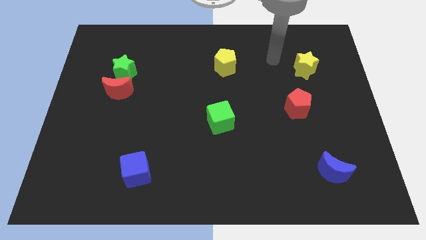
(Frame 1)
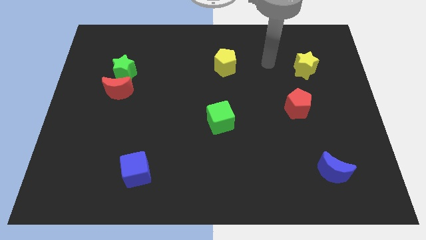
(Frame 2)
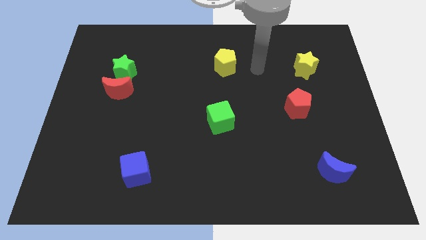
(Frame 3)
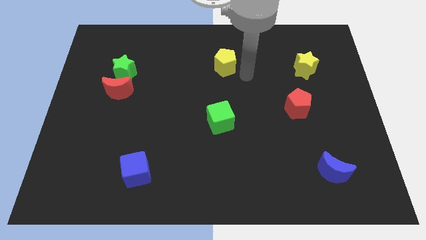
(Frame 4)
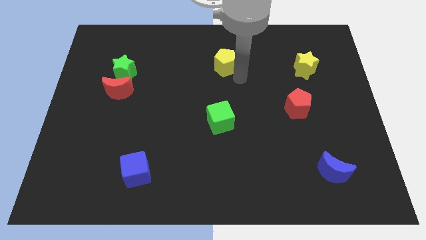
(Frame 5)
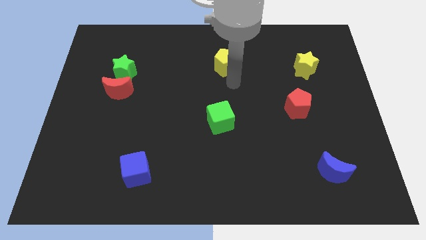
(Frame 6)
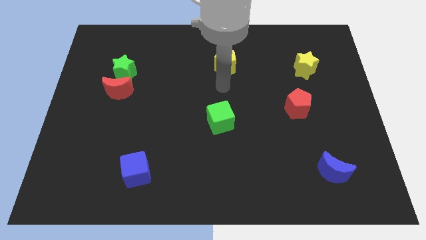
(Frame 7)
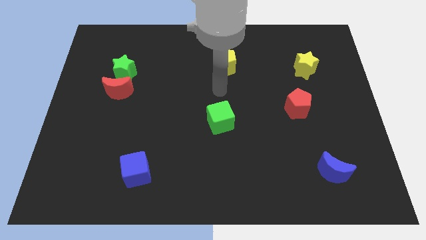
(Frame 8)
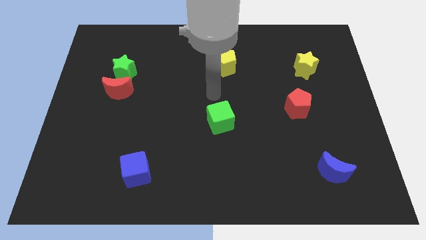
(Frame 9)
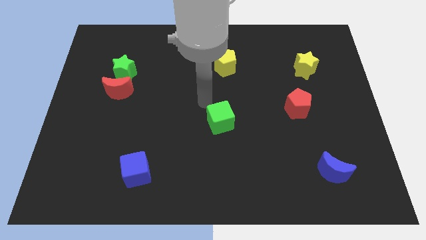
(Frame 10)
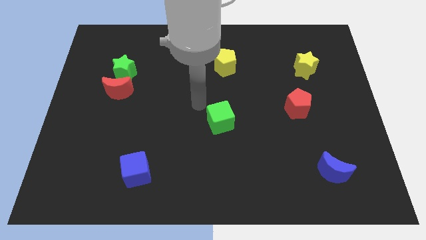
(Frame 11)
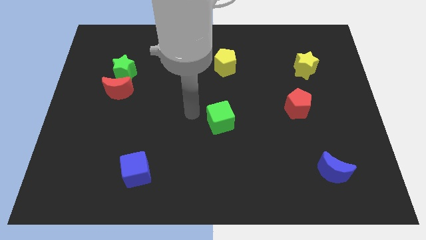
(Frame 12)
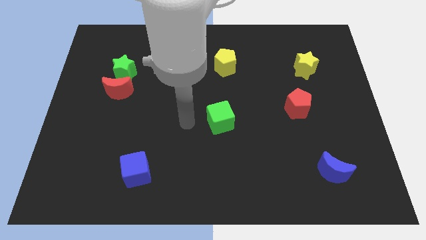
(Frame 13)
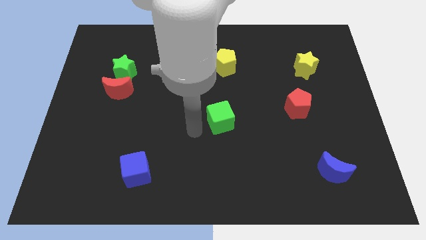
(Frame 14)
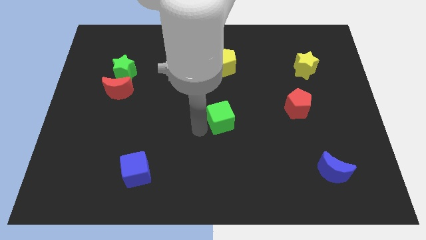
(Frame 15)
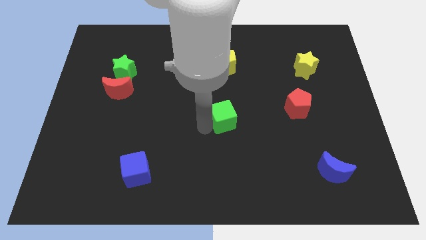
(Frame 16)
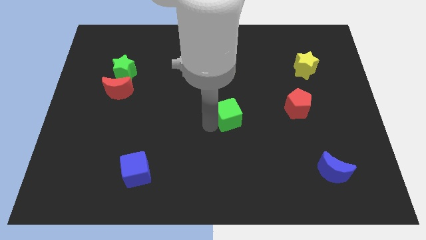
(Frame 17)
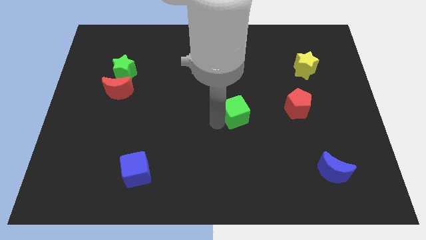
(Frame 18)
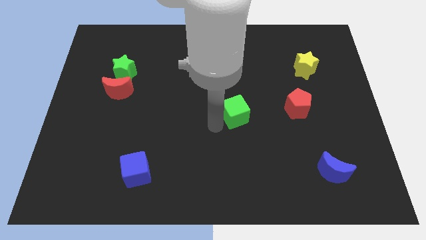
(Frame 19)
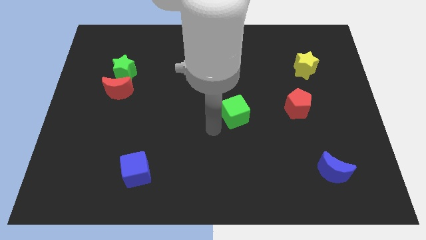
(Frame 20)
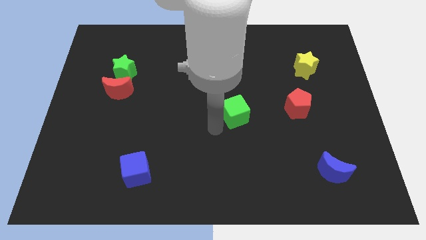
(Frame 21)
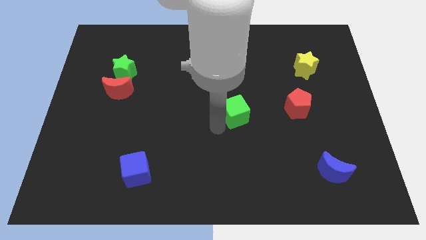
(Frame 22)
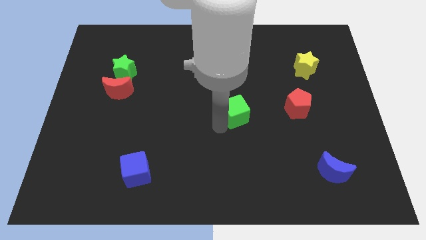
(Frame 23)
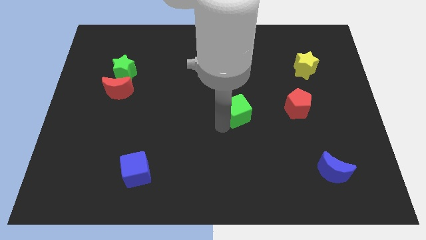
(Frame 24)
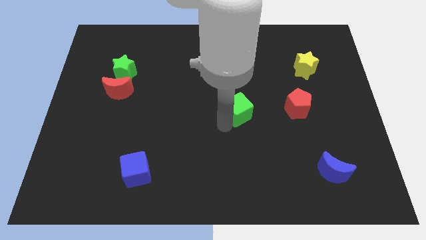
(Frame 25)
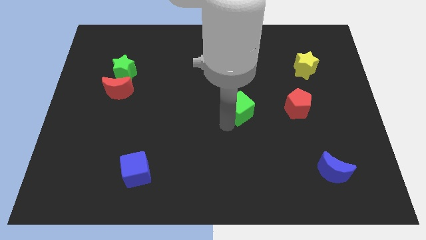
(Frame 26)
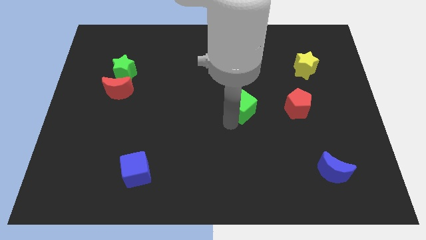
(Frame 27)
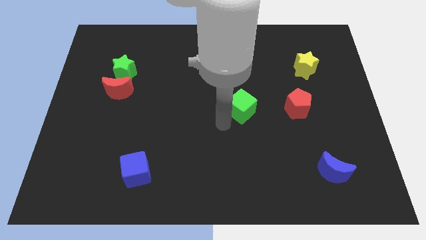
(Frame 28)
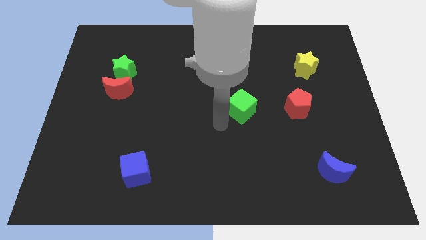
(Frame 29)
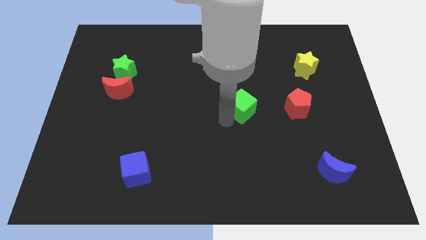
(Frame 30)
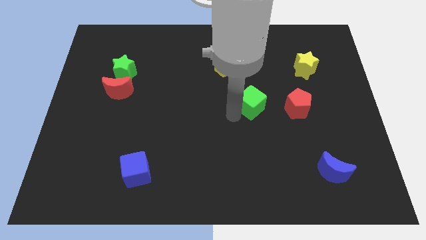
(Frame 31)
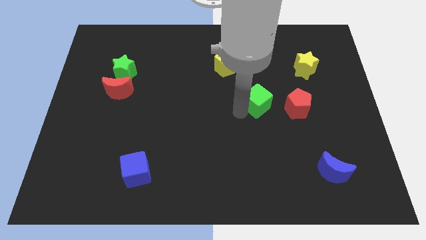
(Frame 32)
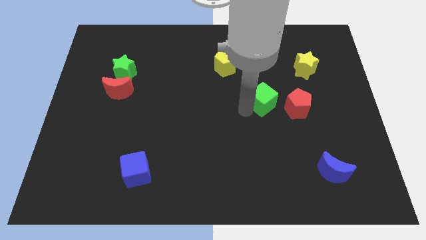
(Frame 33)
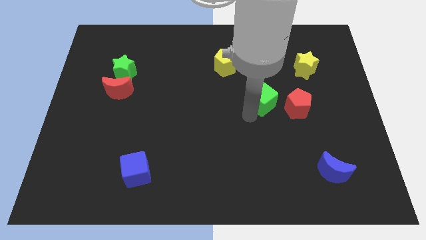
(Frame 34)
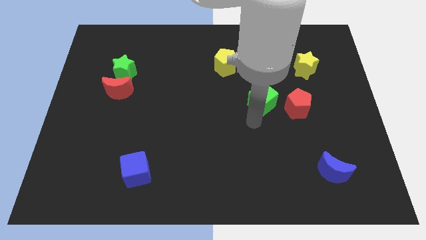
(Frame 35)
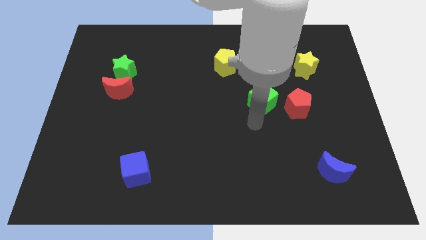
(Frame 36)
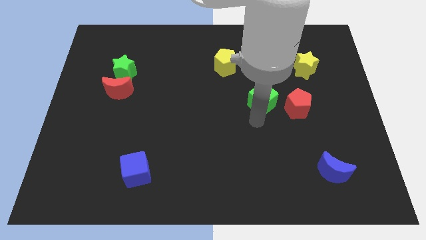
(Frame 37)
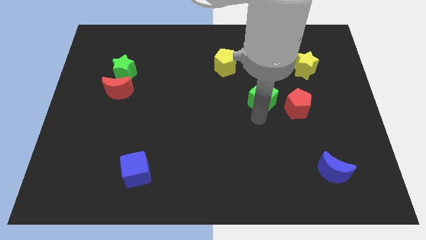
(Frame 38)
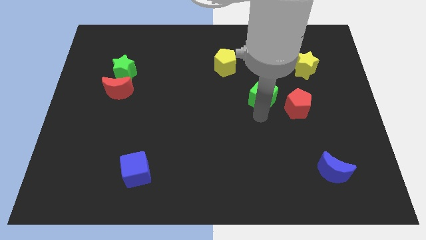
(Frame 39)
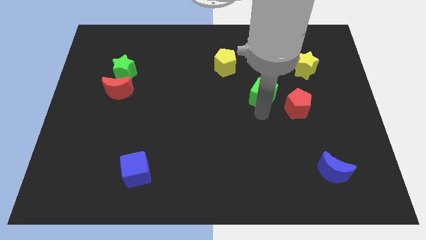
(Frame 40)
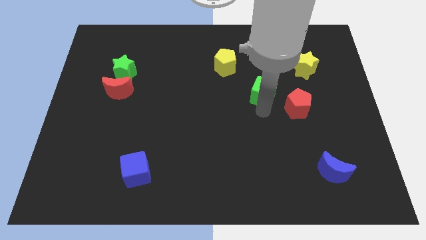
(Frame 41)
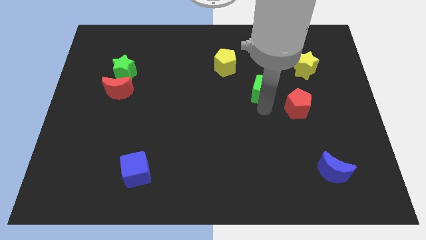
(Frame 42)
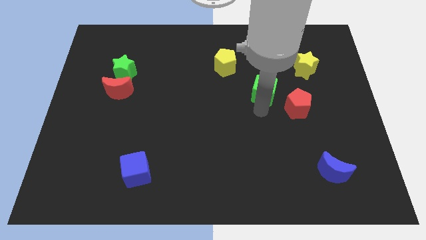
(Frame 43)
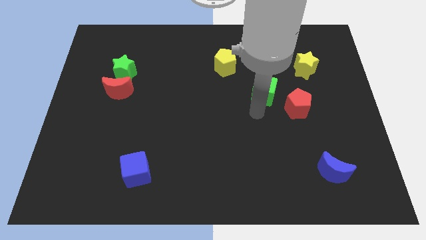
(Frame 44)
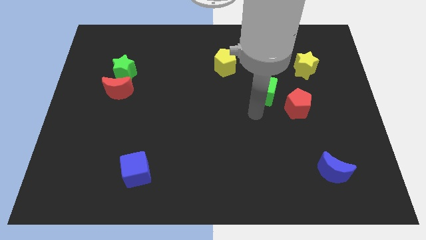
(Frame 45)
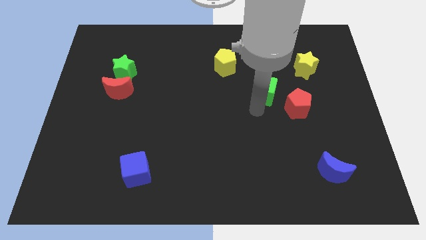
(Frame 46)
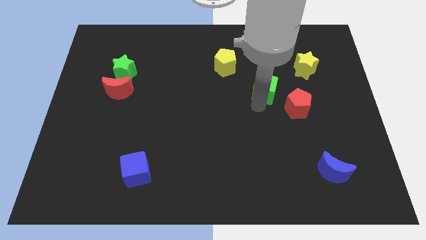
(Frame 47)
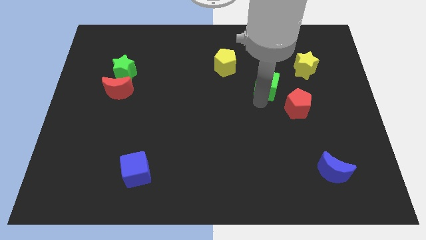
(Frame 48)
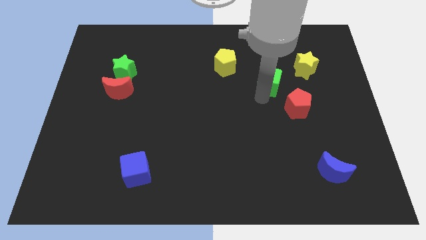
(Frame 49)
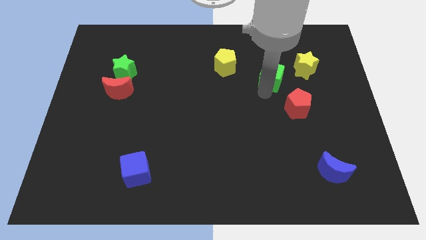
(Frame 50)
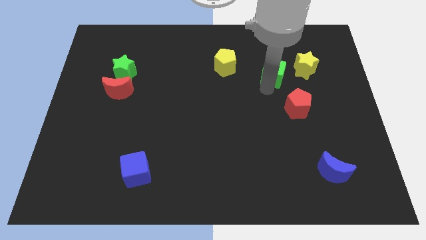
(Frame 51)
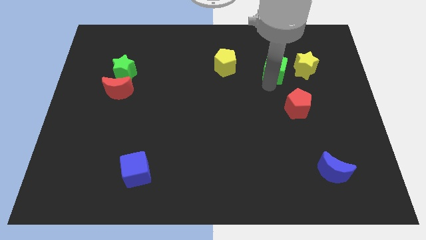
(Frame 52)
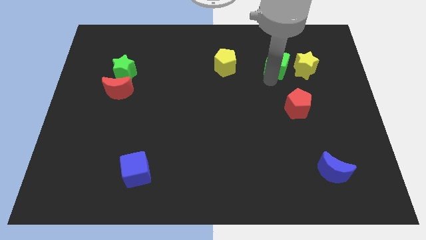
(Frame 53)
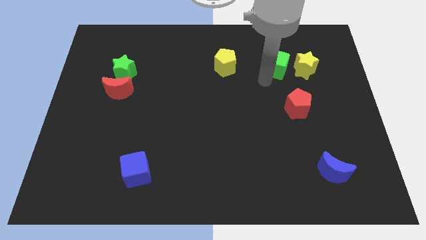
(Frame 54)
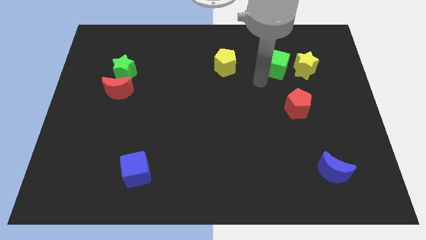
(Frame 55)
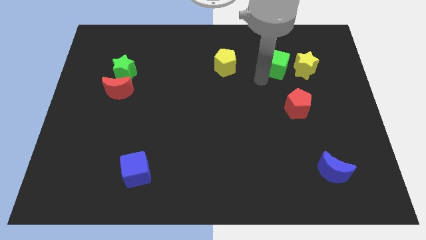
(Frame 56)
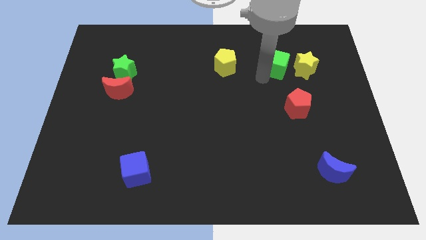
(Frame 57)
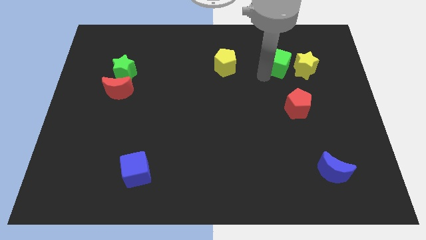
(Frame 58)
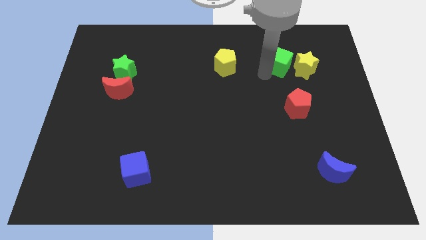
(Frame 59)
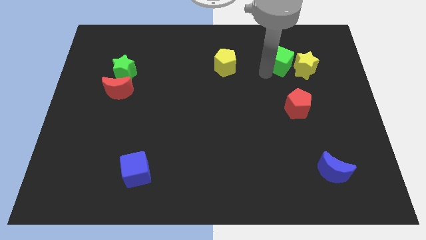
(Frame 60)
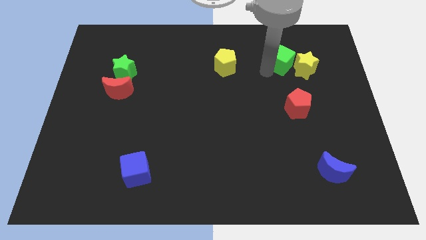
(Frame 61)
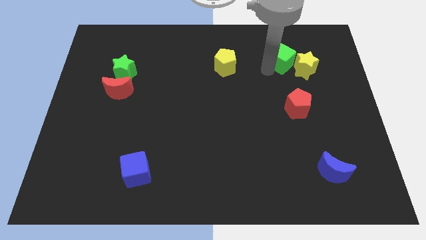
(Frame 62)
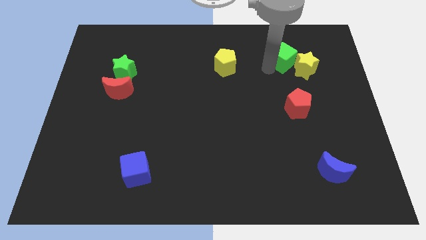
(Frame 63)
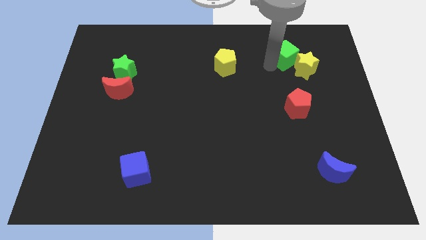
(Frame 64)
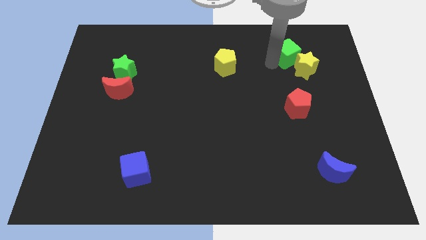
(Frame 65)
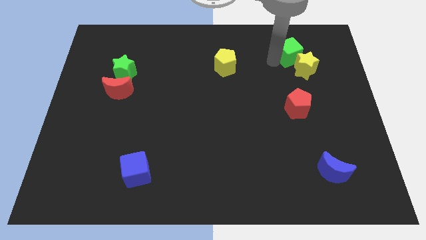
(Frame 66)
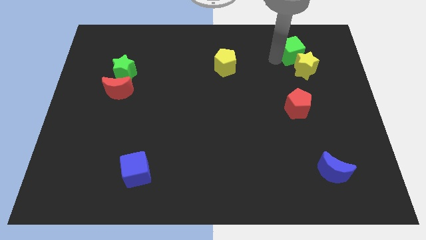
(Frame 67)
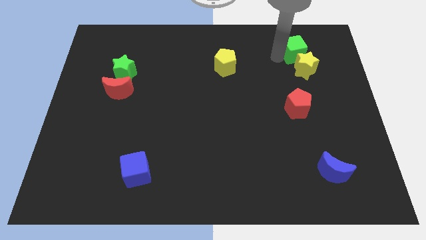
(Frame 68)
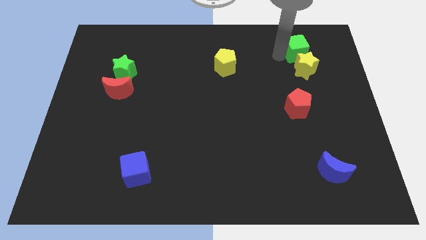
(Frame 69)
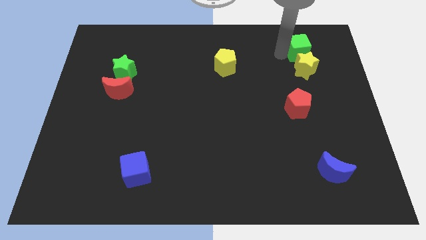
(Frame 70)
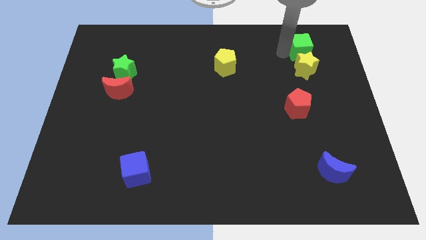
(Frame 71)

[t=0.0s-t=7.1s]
slide the green cube to the top right of the yellow star

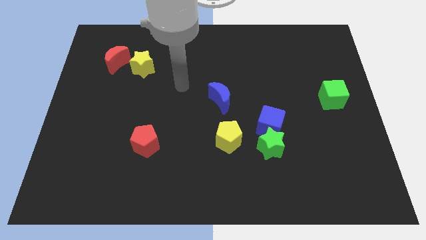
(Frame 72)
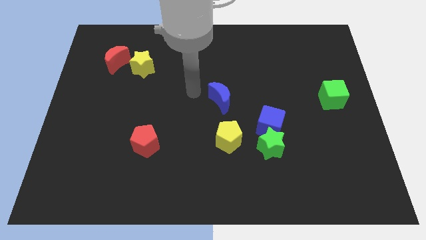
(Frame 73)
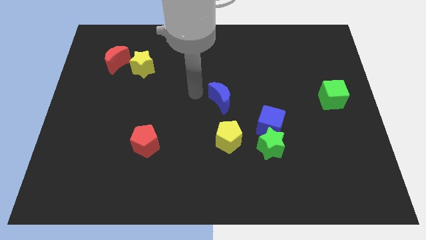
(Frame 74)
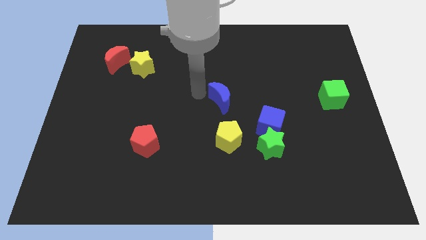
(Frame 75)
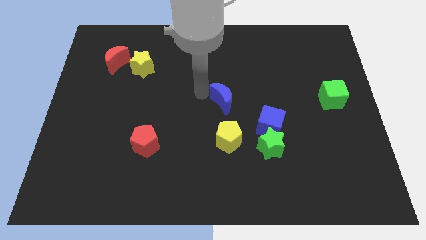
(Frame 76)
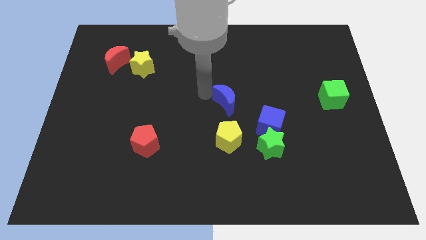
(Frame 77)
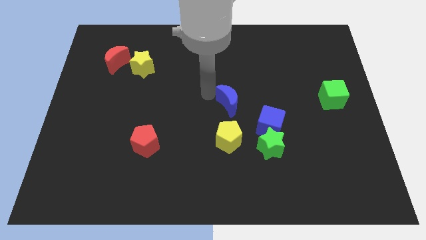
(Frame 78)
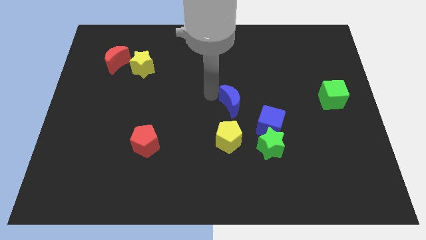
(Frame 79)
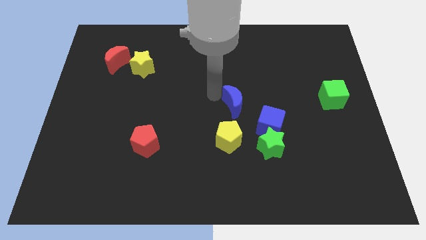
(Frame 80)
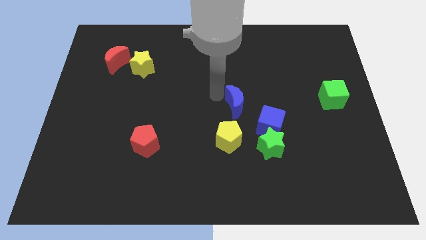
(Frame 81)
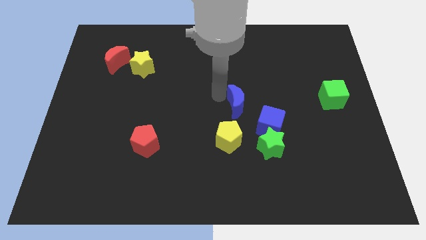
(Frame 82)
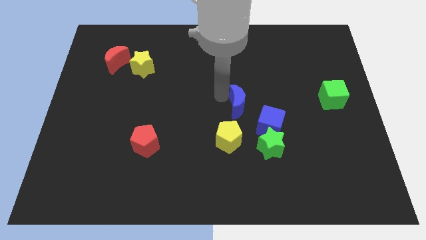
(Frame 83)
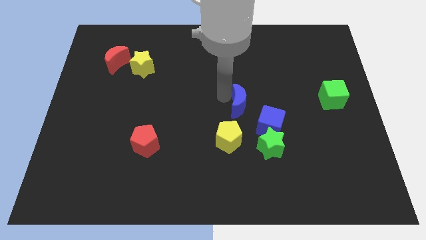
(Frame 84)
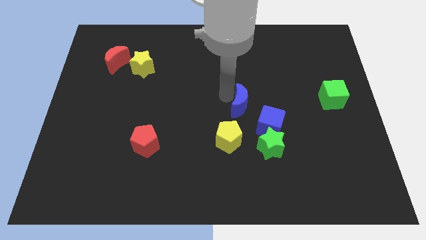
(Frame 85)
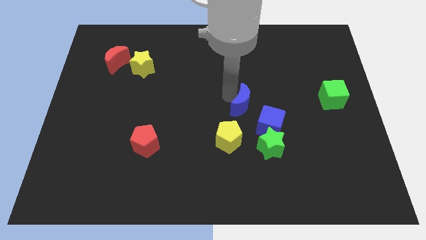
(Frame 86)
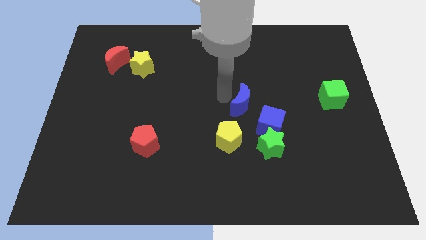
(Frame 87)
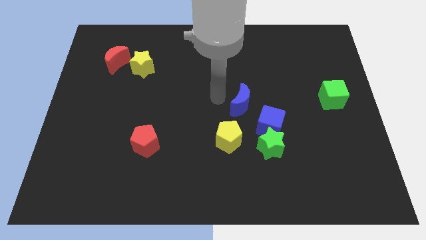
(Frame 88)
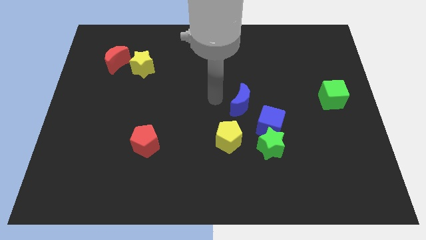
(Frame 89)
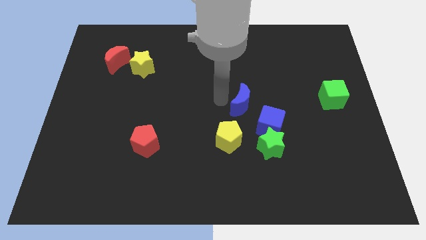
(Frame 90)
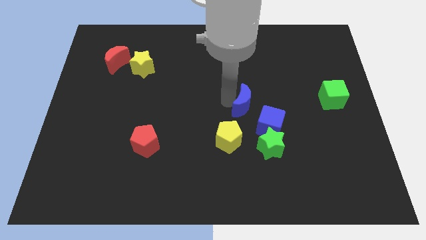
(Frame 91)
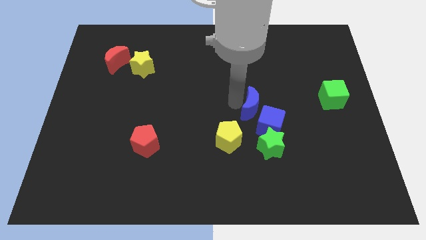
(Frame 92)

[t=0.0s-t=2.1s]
push the blue moon to the top side of the green star
